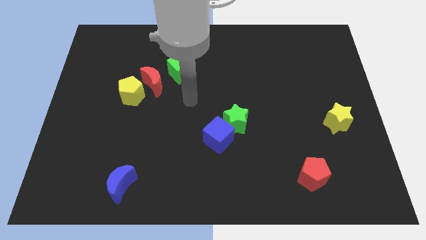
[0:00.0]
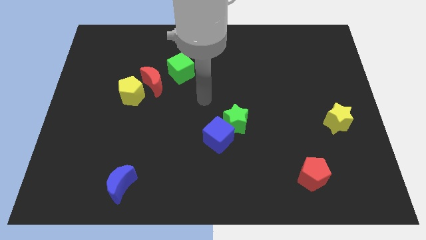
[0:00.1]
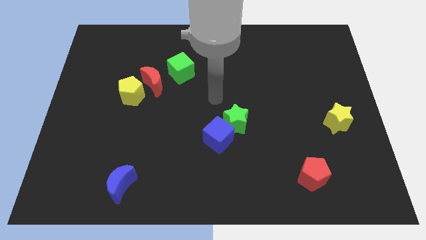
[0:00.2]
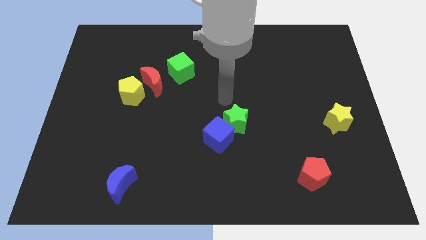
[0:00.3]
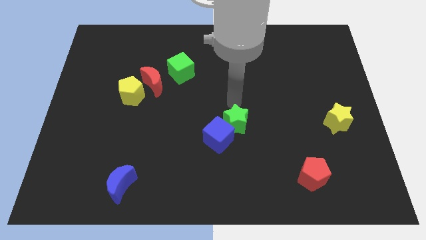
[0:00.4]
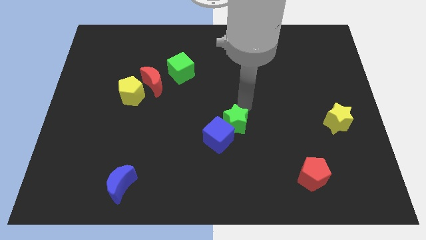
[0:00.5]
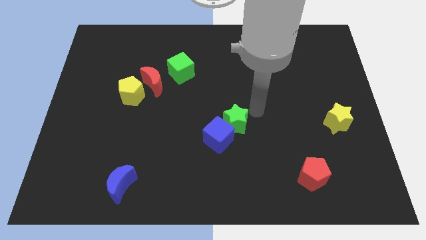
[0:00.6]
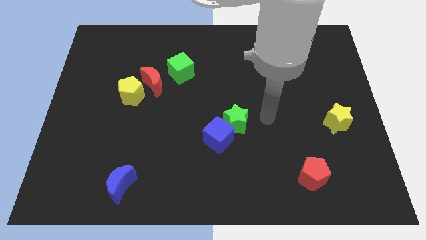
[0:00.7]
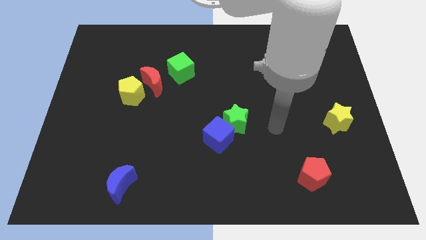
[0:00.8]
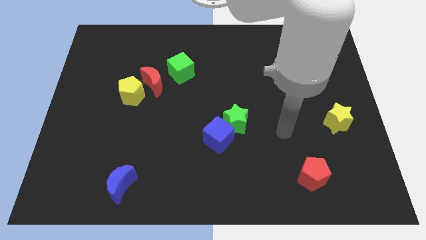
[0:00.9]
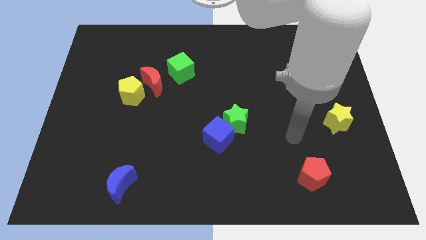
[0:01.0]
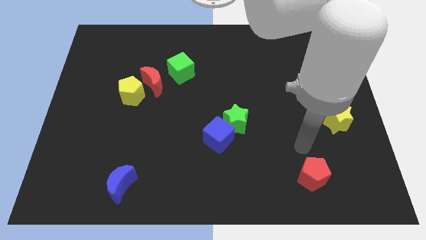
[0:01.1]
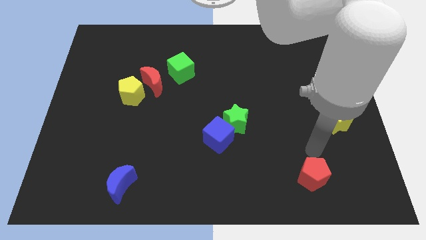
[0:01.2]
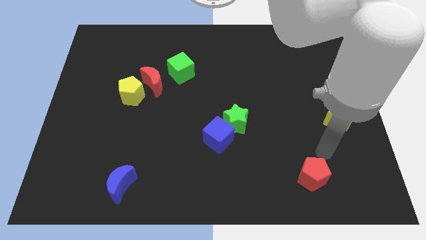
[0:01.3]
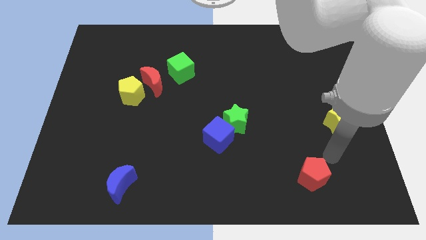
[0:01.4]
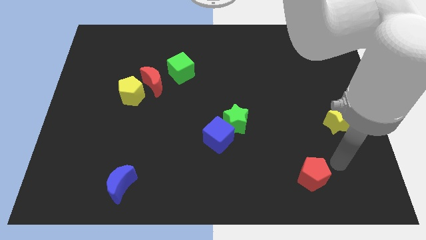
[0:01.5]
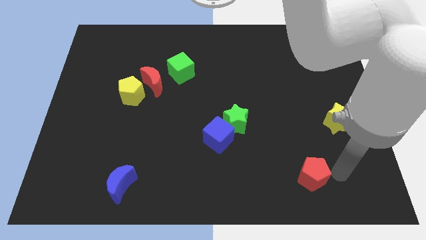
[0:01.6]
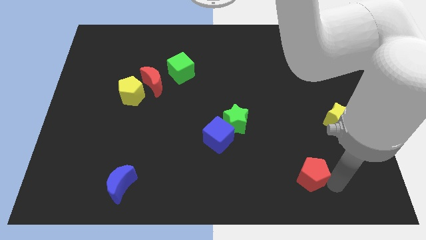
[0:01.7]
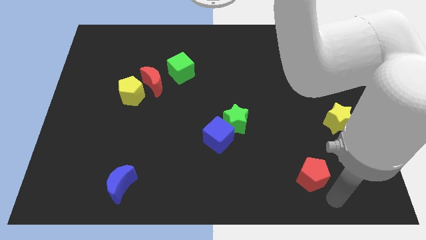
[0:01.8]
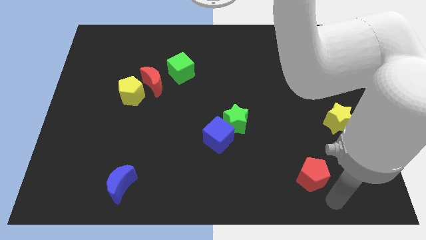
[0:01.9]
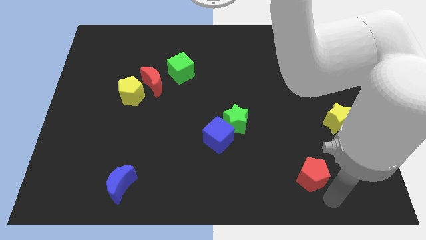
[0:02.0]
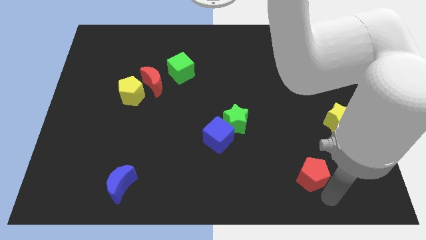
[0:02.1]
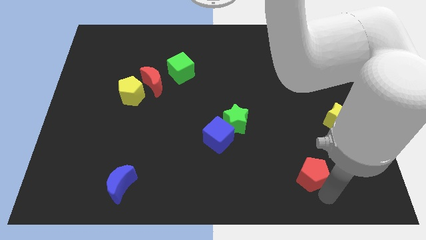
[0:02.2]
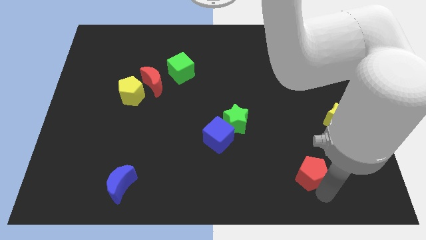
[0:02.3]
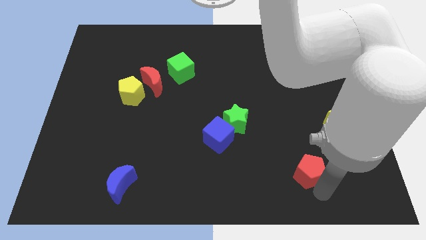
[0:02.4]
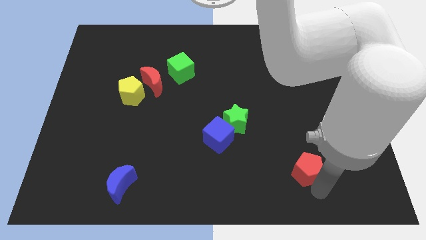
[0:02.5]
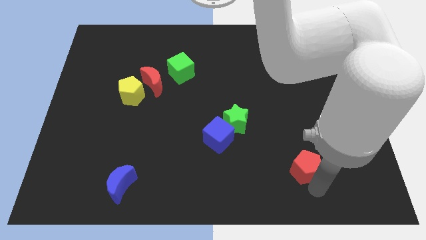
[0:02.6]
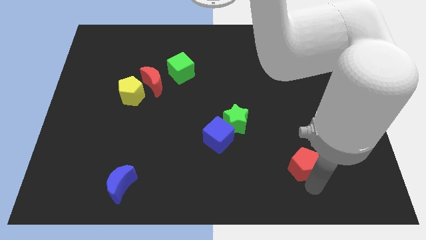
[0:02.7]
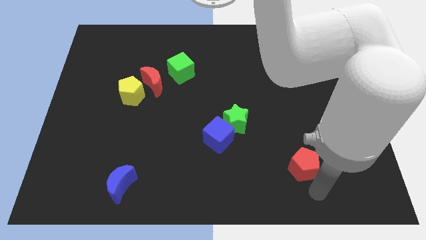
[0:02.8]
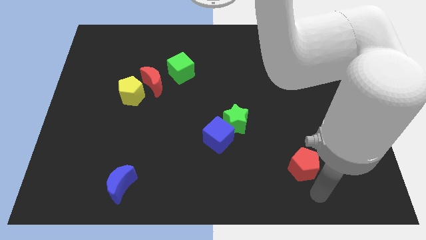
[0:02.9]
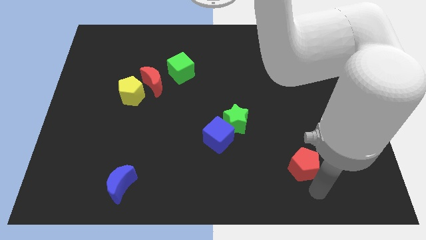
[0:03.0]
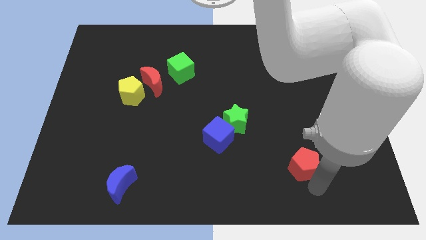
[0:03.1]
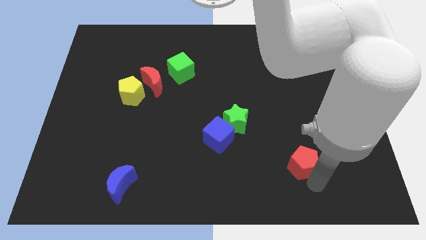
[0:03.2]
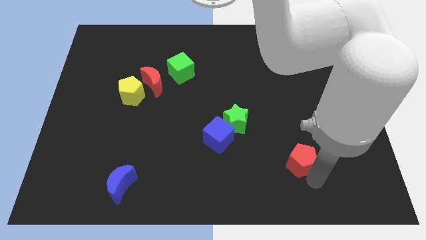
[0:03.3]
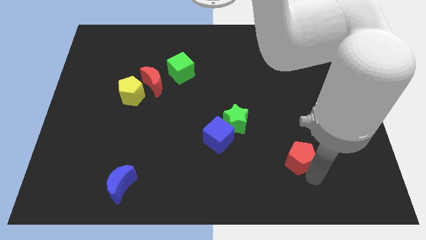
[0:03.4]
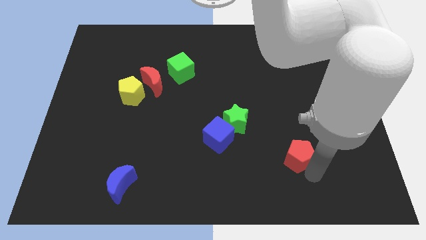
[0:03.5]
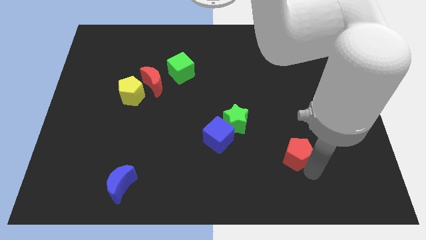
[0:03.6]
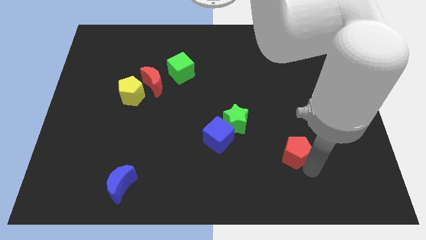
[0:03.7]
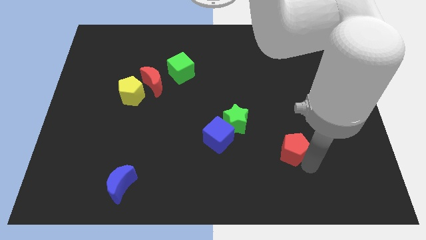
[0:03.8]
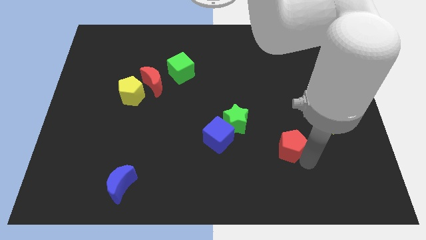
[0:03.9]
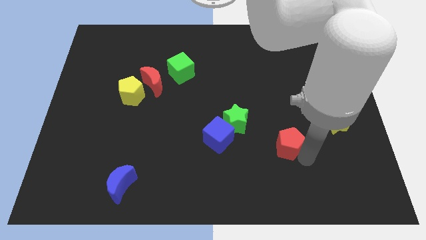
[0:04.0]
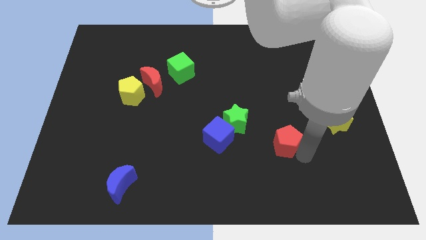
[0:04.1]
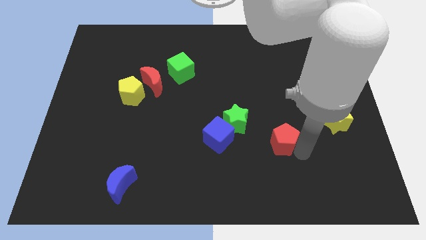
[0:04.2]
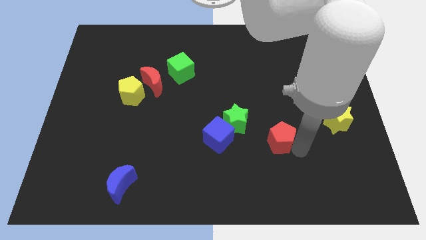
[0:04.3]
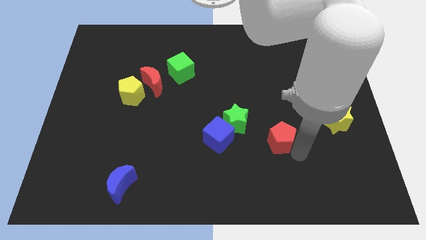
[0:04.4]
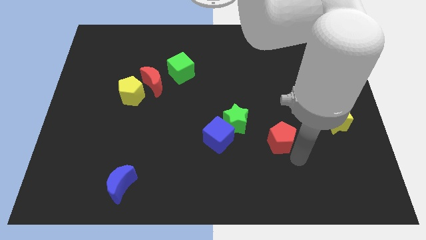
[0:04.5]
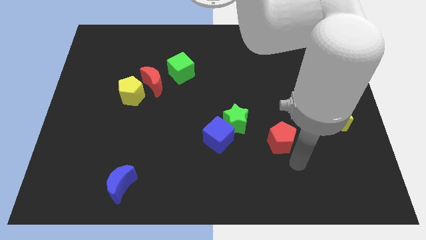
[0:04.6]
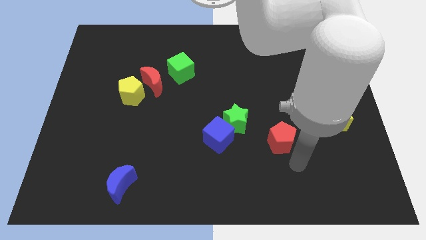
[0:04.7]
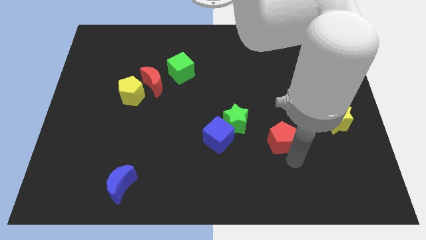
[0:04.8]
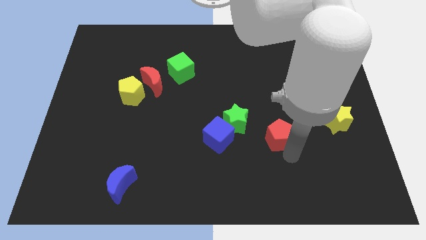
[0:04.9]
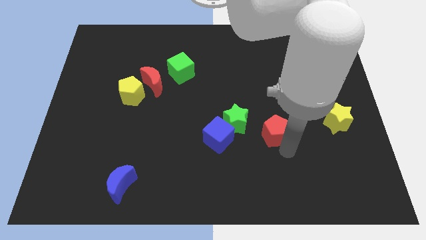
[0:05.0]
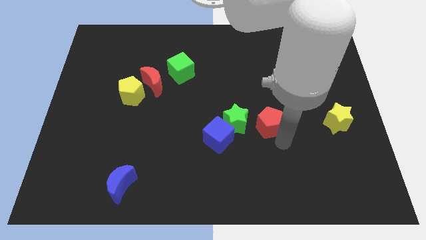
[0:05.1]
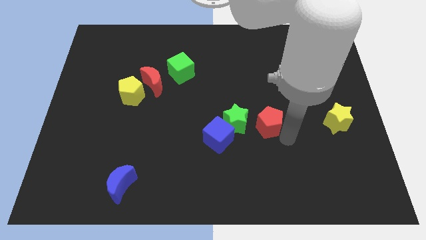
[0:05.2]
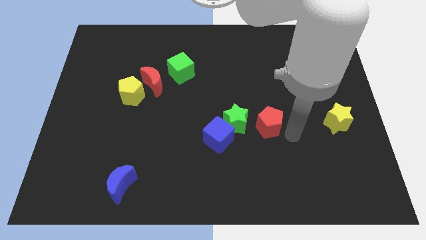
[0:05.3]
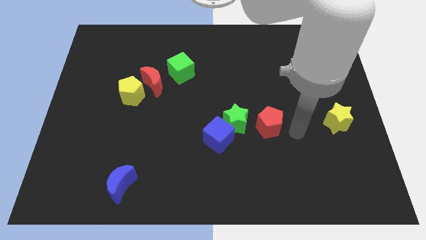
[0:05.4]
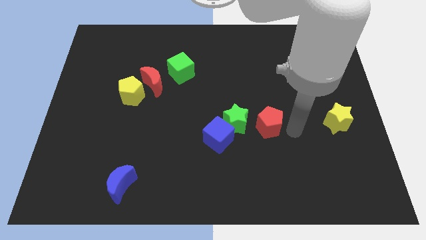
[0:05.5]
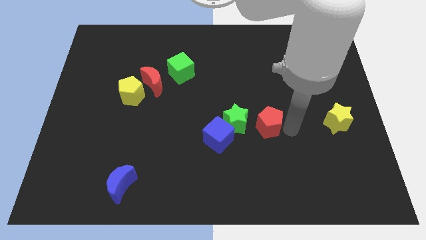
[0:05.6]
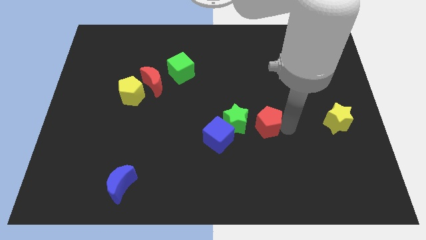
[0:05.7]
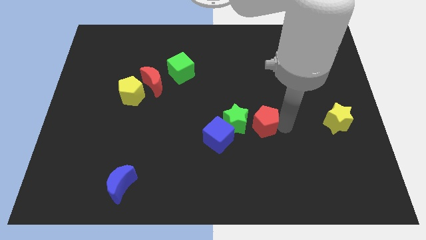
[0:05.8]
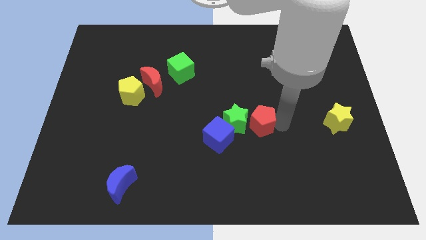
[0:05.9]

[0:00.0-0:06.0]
push the red pentagon to the top right of the blue cube

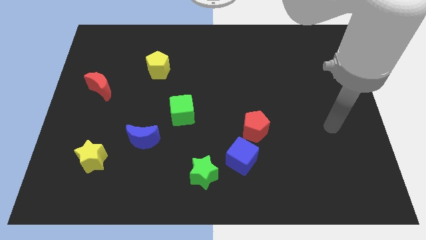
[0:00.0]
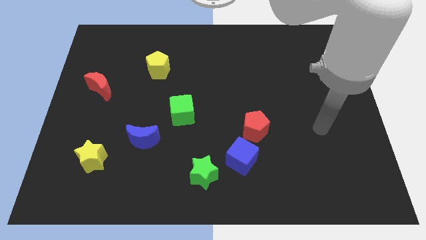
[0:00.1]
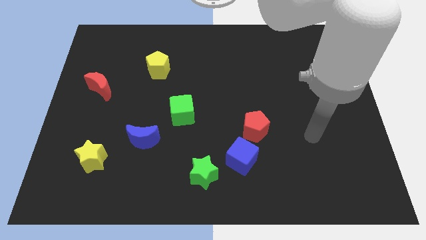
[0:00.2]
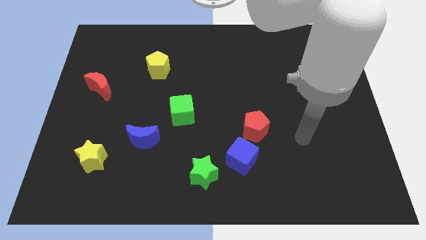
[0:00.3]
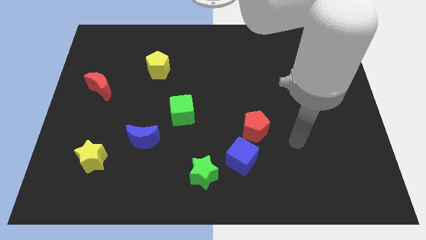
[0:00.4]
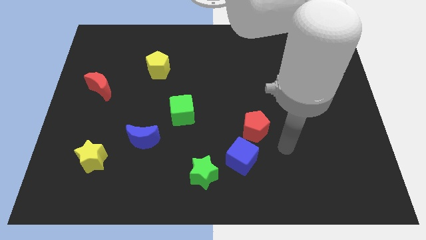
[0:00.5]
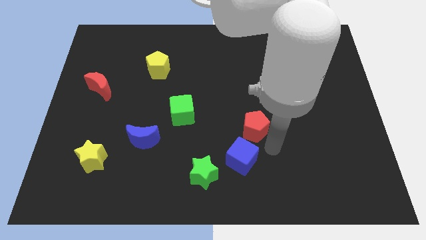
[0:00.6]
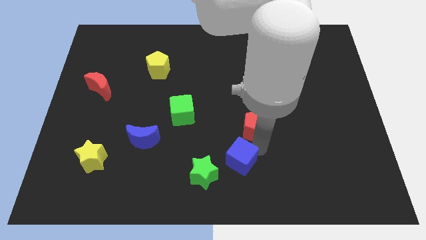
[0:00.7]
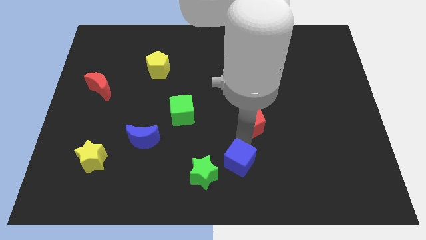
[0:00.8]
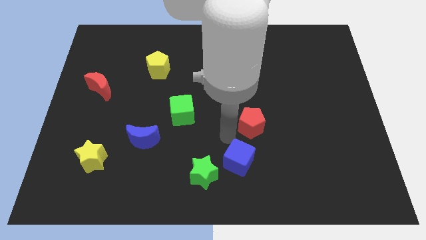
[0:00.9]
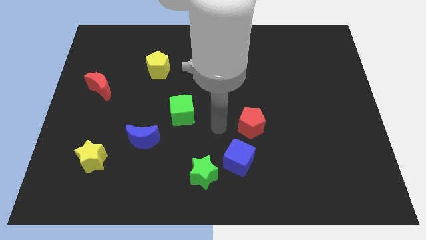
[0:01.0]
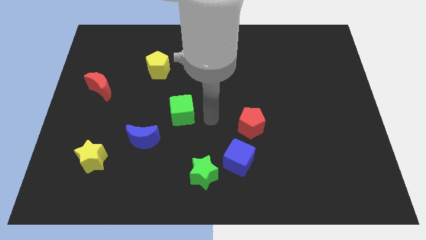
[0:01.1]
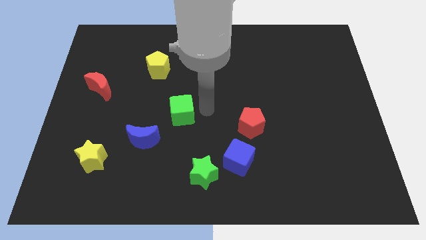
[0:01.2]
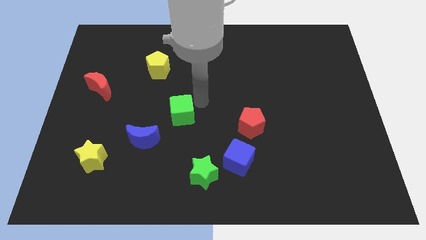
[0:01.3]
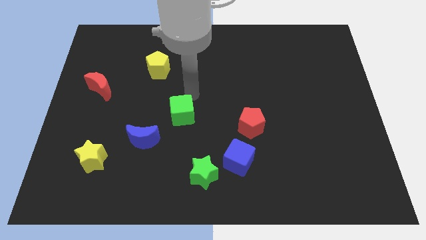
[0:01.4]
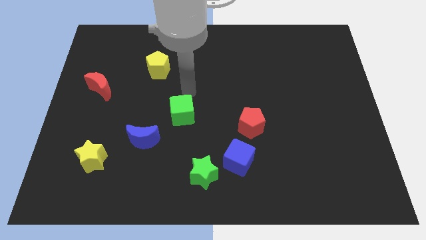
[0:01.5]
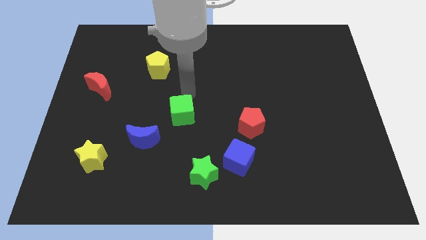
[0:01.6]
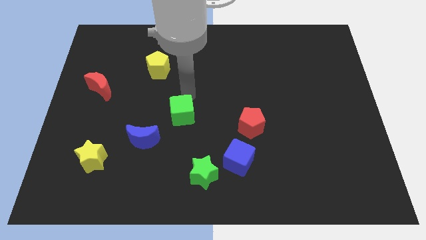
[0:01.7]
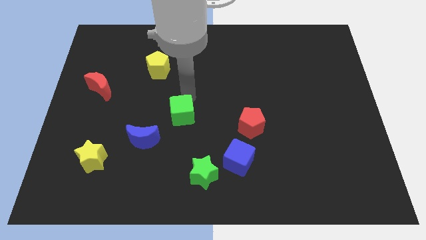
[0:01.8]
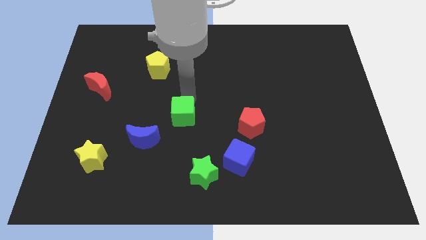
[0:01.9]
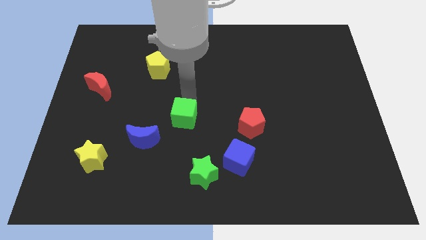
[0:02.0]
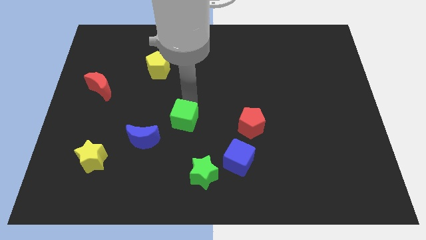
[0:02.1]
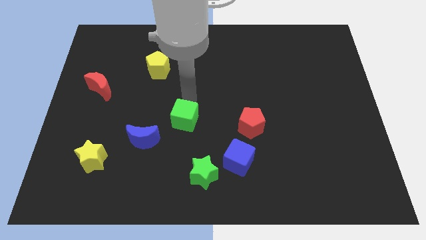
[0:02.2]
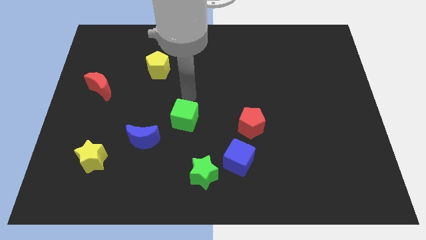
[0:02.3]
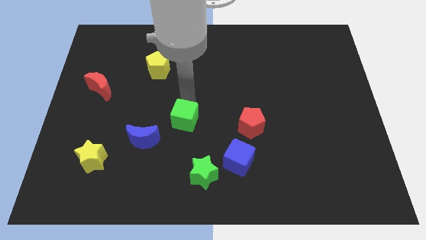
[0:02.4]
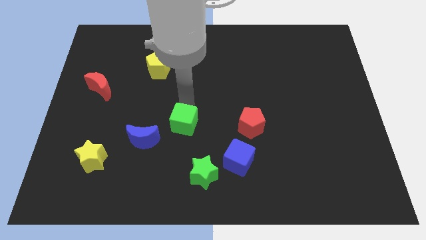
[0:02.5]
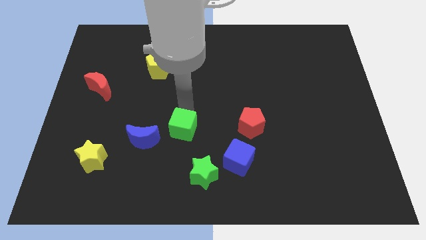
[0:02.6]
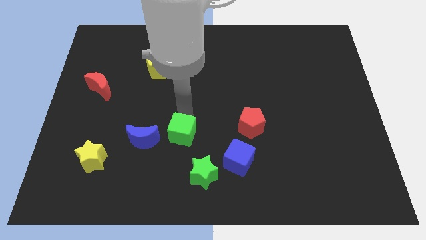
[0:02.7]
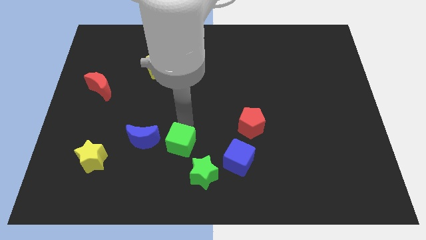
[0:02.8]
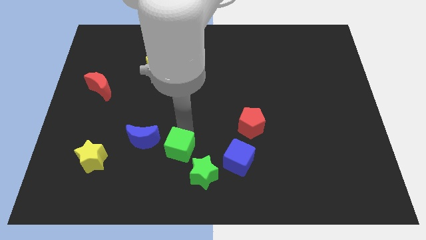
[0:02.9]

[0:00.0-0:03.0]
slide the green cube diagonally down and to the right of the blue moon
